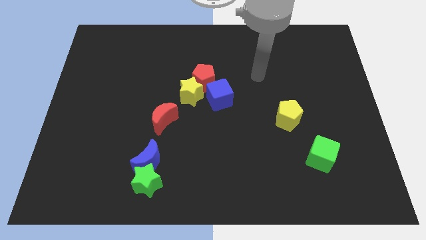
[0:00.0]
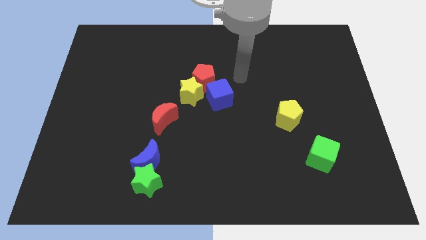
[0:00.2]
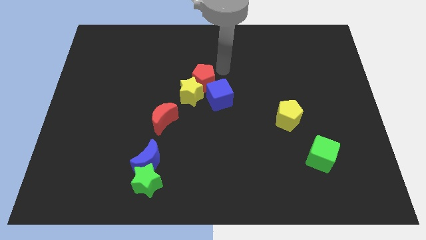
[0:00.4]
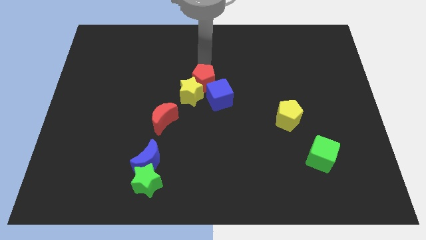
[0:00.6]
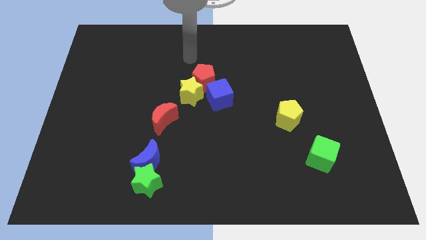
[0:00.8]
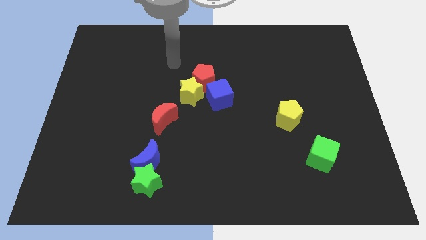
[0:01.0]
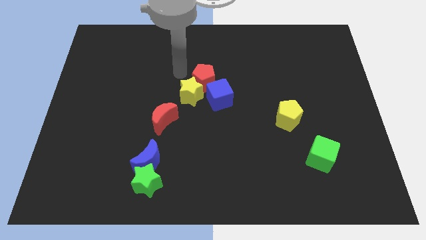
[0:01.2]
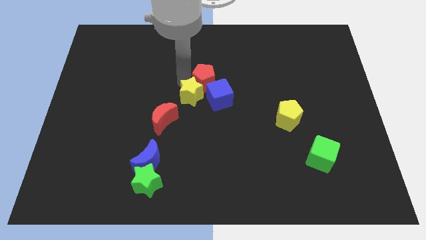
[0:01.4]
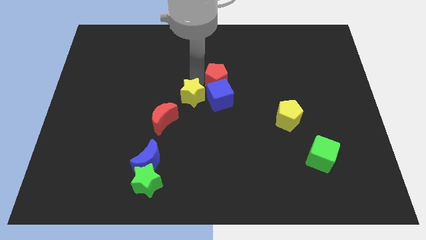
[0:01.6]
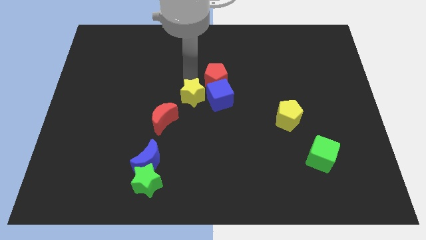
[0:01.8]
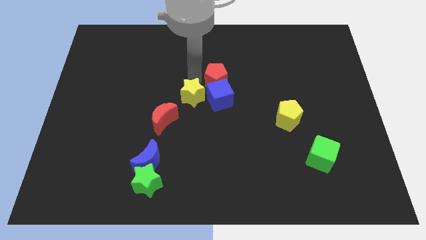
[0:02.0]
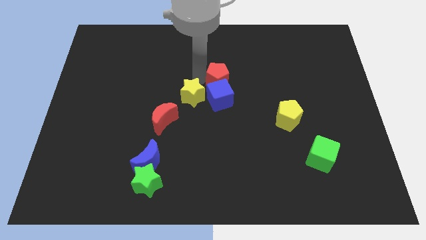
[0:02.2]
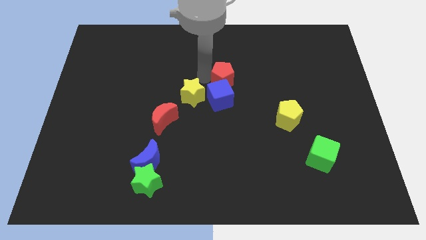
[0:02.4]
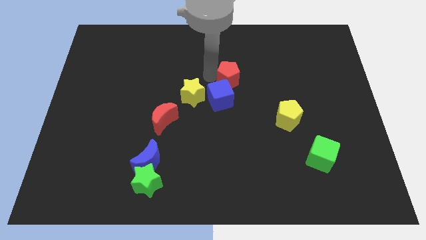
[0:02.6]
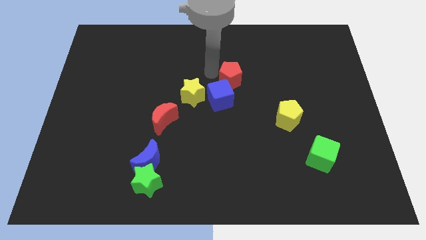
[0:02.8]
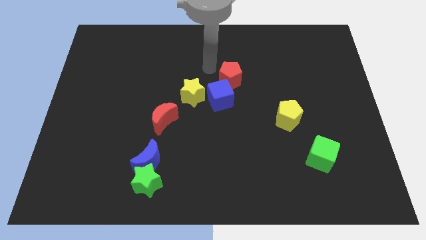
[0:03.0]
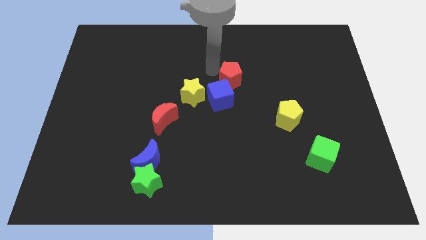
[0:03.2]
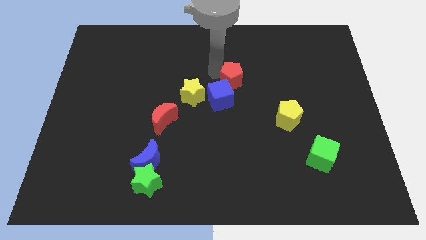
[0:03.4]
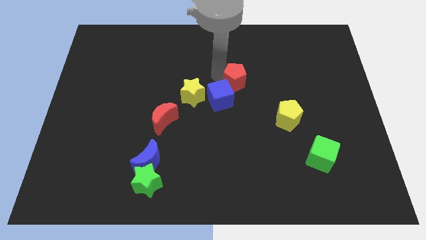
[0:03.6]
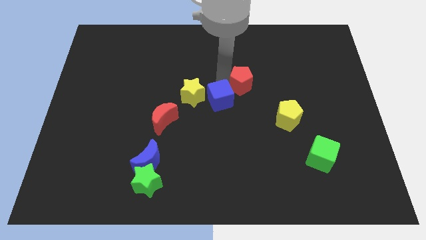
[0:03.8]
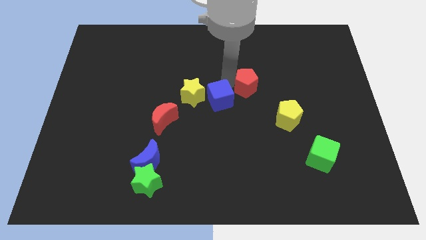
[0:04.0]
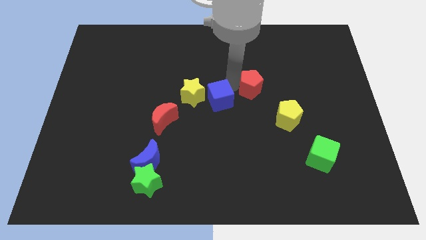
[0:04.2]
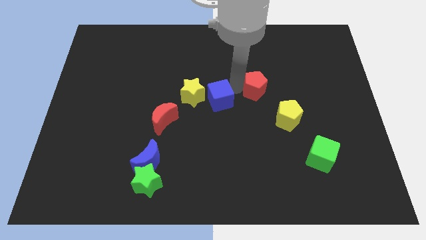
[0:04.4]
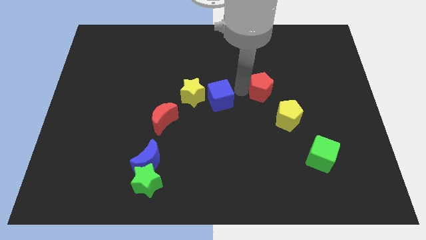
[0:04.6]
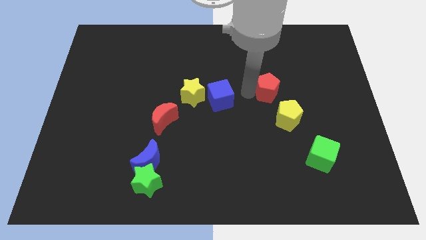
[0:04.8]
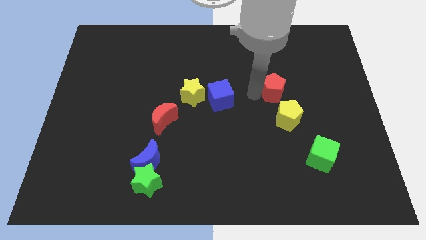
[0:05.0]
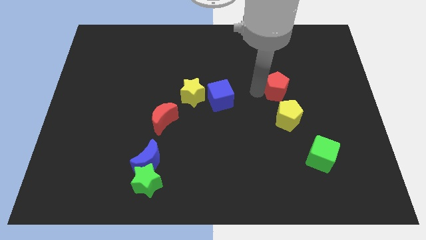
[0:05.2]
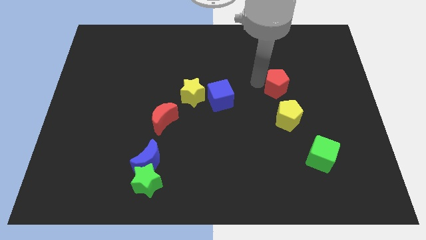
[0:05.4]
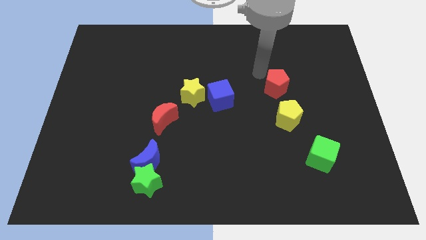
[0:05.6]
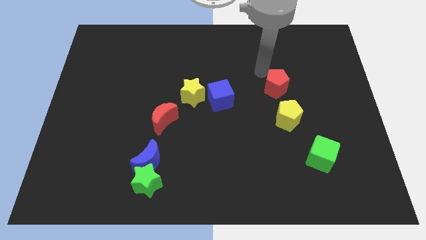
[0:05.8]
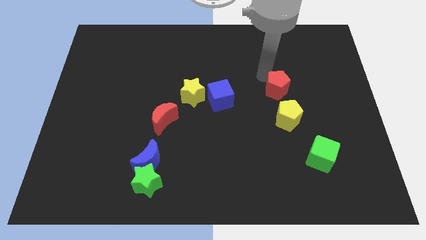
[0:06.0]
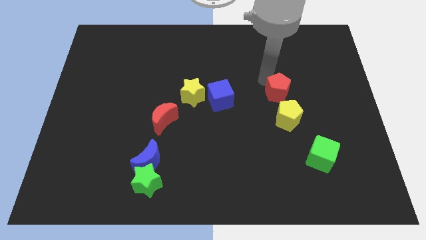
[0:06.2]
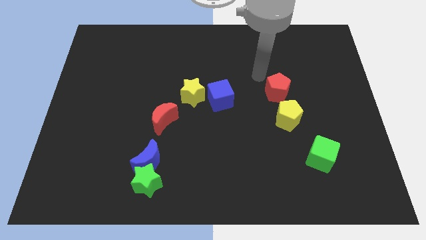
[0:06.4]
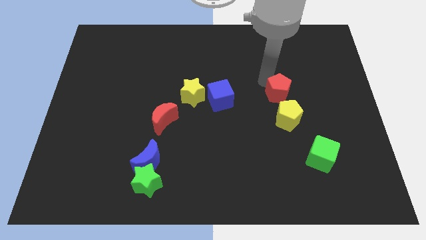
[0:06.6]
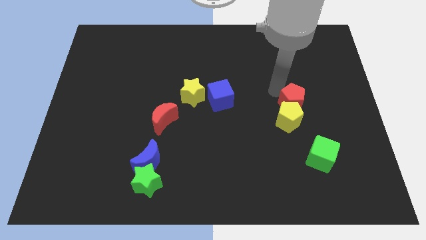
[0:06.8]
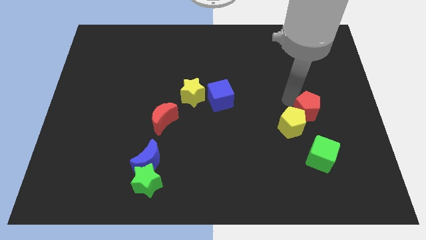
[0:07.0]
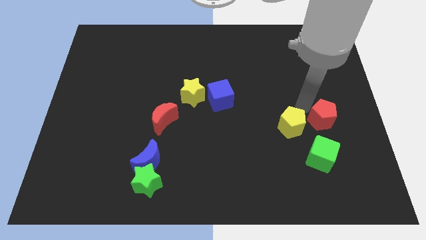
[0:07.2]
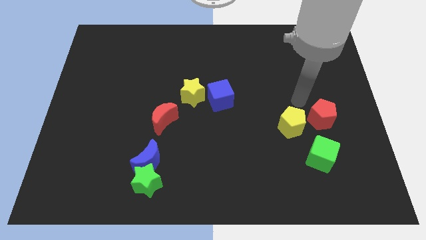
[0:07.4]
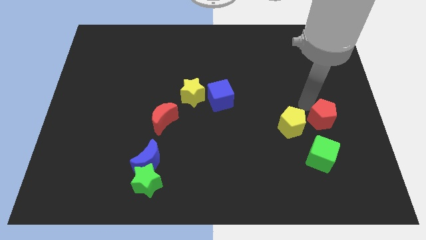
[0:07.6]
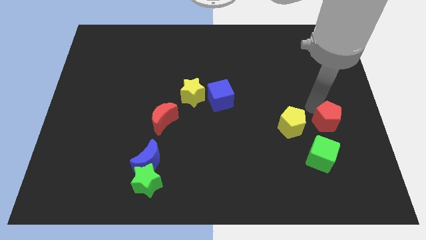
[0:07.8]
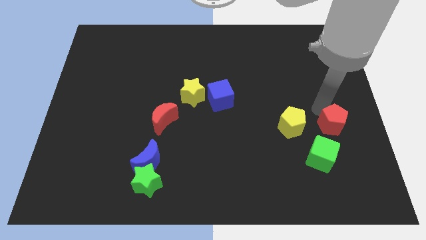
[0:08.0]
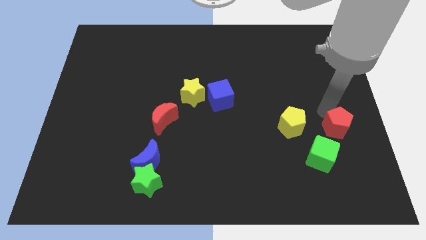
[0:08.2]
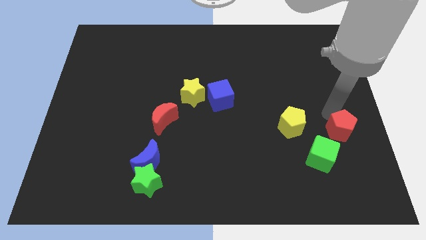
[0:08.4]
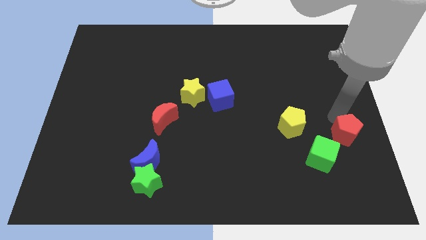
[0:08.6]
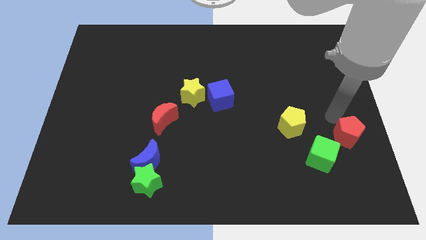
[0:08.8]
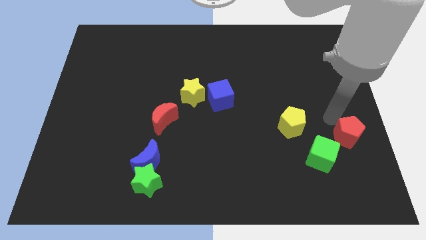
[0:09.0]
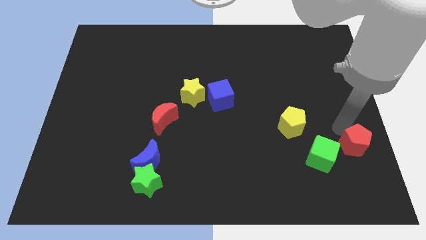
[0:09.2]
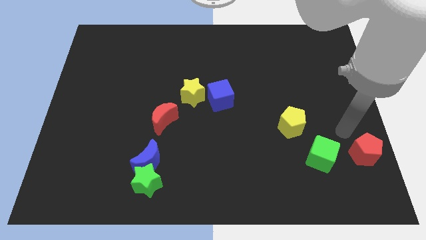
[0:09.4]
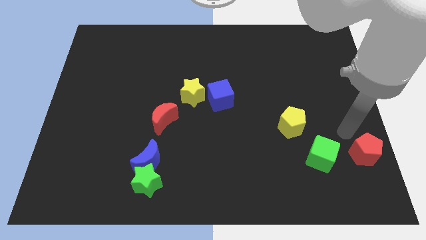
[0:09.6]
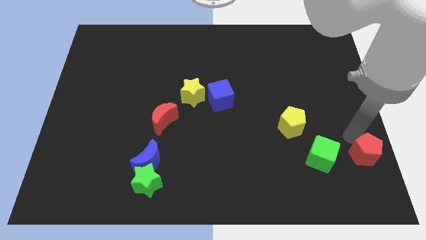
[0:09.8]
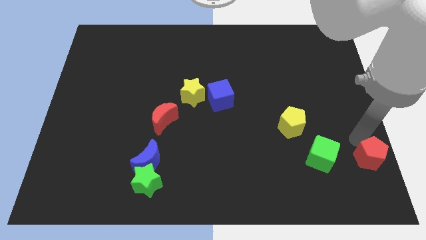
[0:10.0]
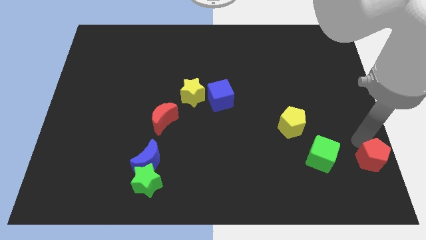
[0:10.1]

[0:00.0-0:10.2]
slide the red pentagon to the bottom right

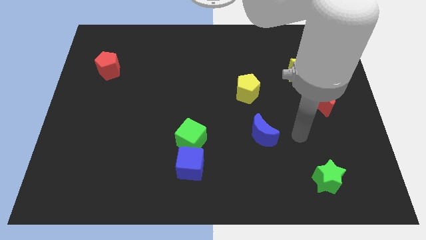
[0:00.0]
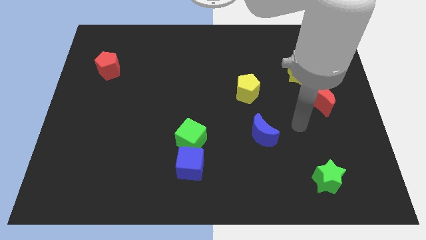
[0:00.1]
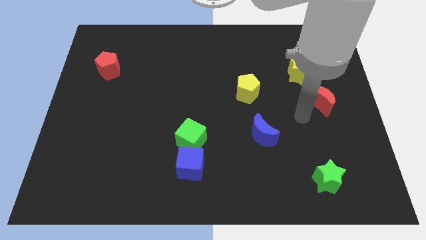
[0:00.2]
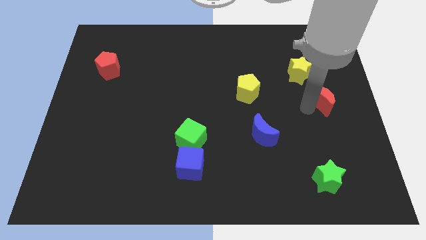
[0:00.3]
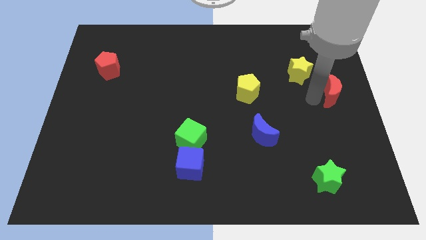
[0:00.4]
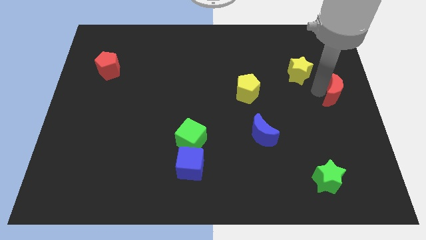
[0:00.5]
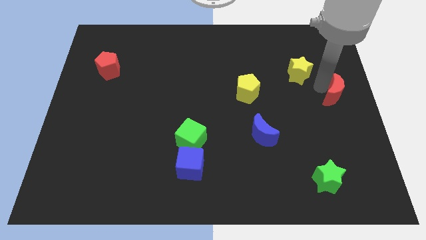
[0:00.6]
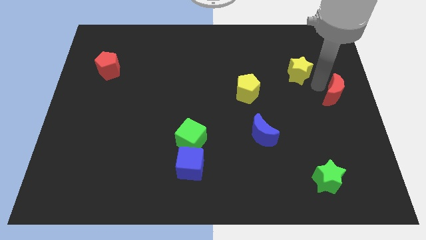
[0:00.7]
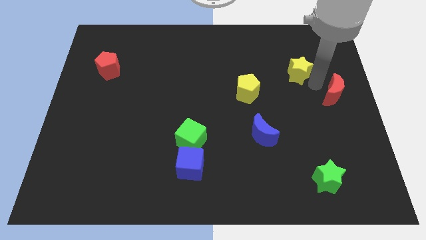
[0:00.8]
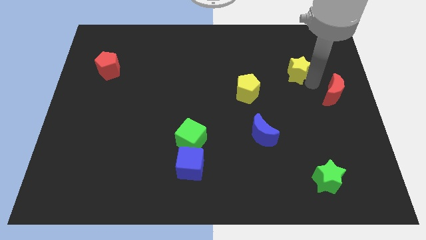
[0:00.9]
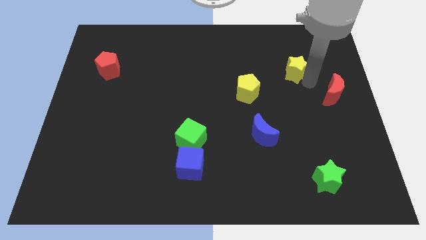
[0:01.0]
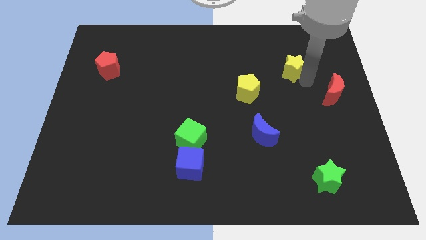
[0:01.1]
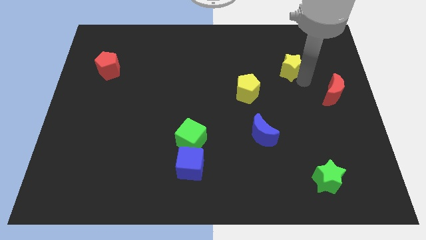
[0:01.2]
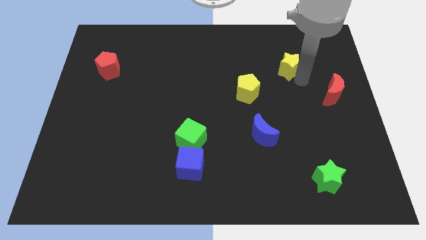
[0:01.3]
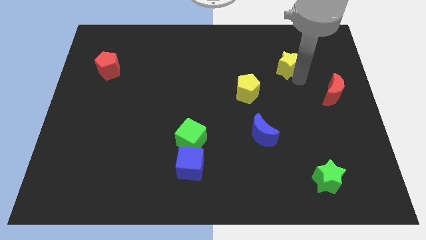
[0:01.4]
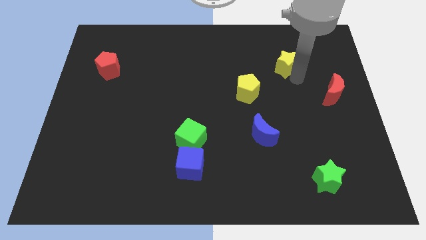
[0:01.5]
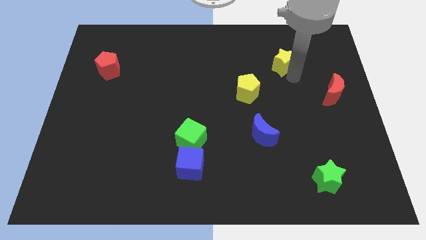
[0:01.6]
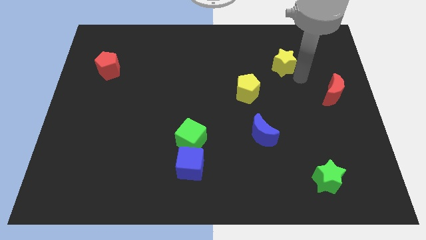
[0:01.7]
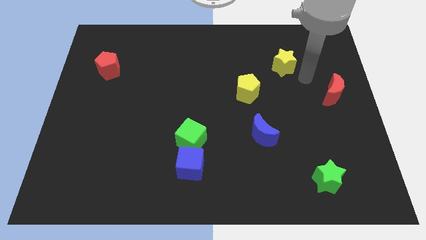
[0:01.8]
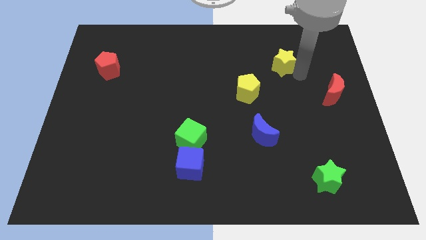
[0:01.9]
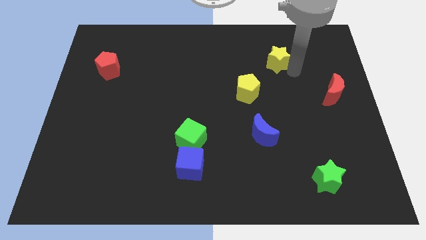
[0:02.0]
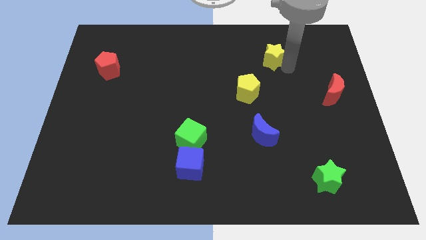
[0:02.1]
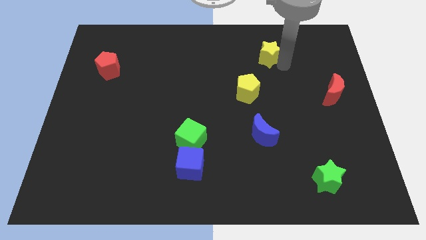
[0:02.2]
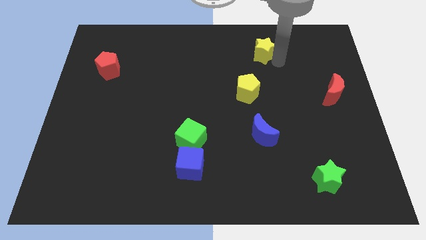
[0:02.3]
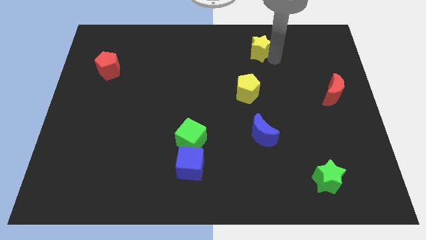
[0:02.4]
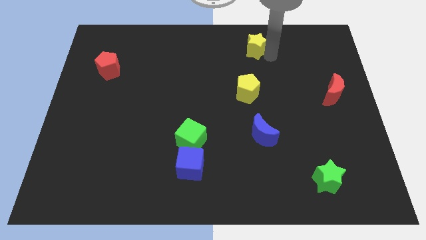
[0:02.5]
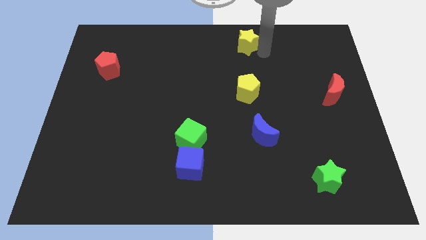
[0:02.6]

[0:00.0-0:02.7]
move the yellow star to the top
